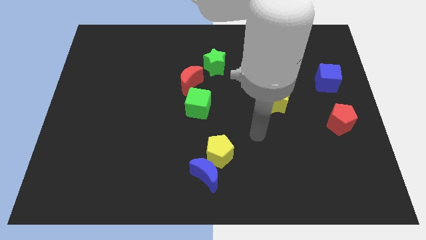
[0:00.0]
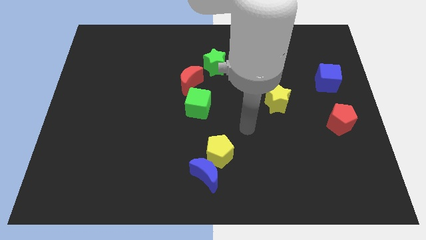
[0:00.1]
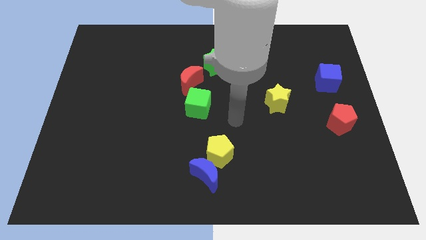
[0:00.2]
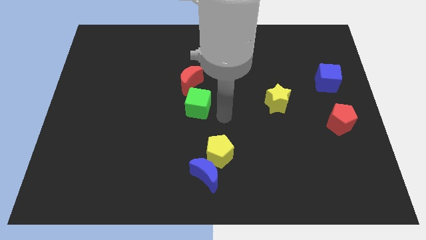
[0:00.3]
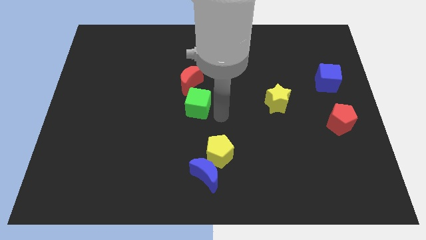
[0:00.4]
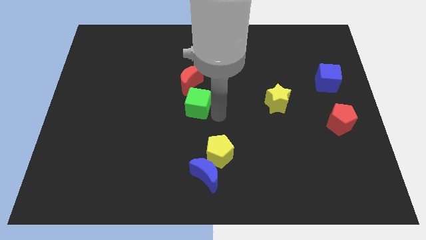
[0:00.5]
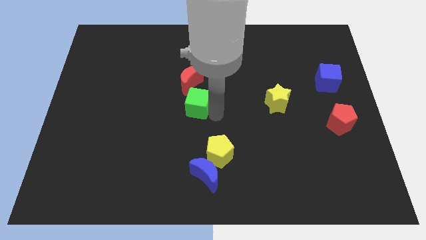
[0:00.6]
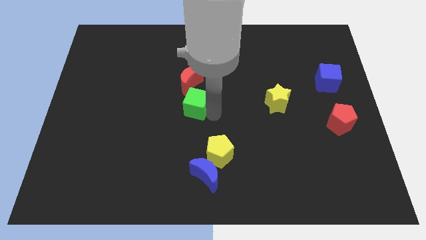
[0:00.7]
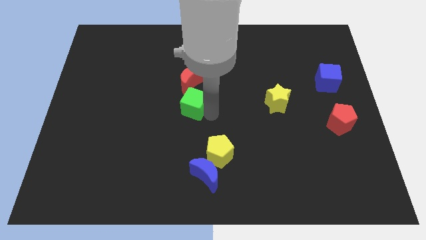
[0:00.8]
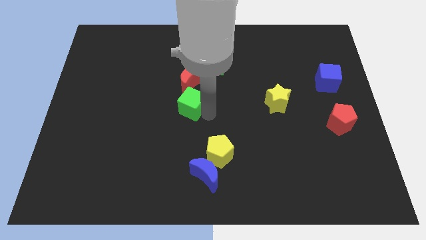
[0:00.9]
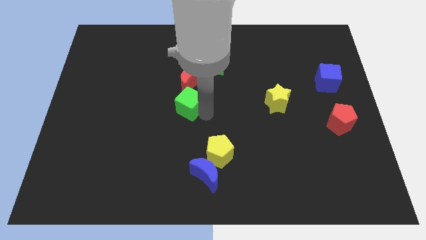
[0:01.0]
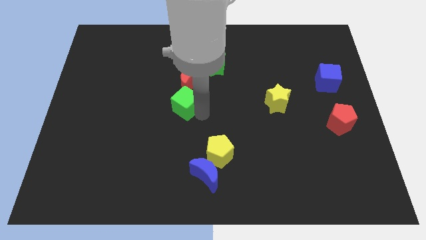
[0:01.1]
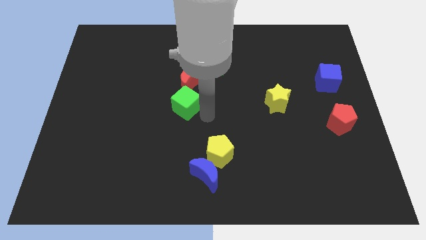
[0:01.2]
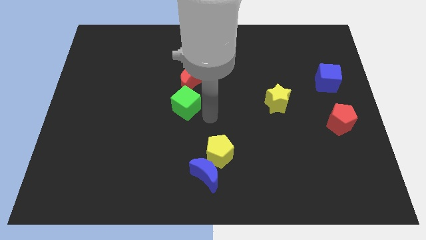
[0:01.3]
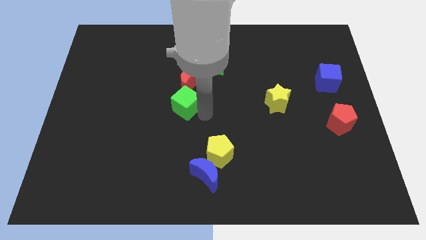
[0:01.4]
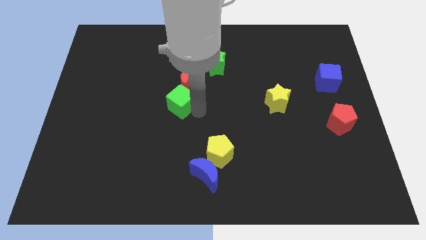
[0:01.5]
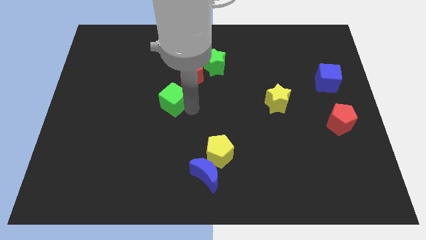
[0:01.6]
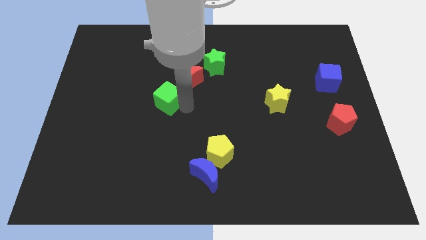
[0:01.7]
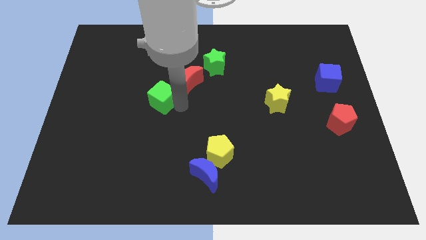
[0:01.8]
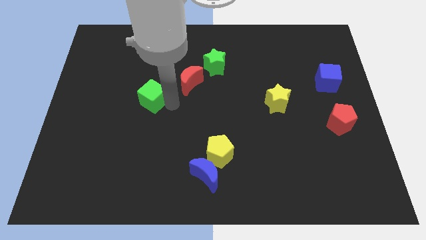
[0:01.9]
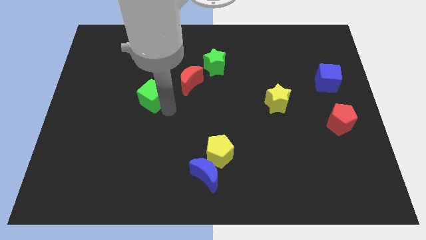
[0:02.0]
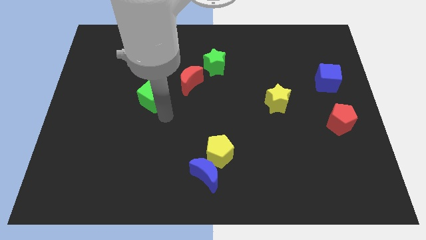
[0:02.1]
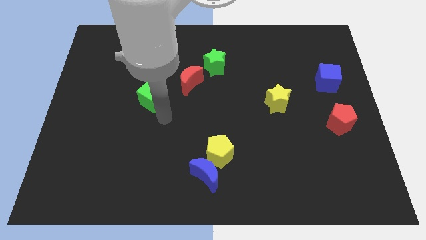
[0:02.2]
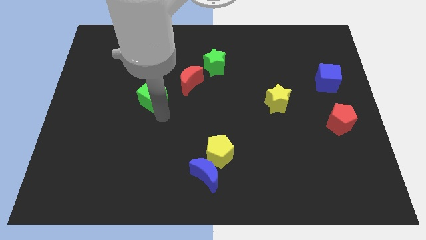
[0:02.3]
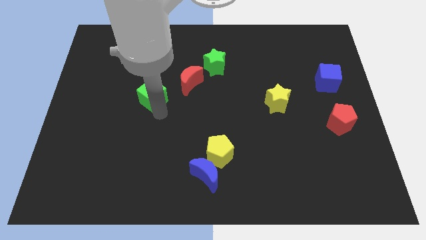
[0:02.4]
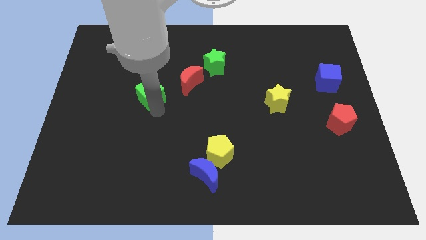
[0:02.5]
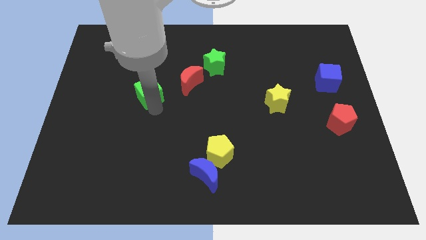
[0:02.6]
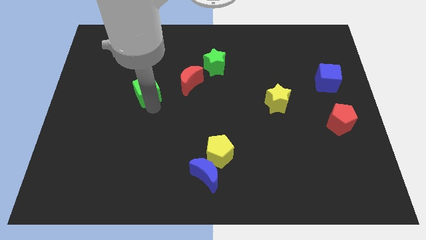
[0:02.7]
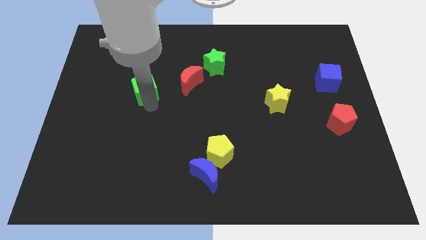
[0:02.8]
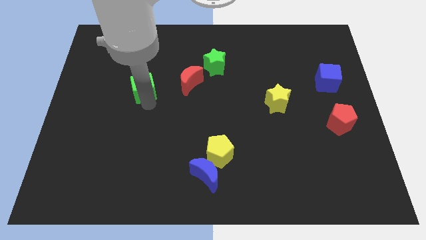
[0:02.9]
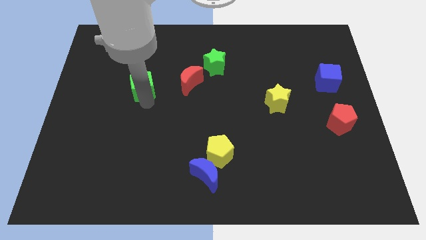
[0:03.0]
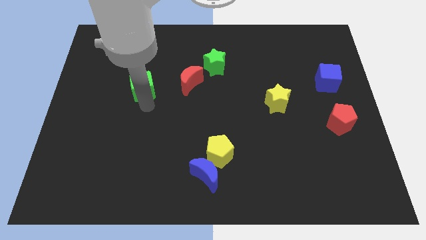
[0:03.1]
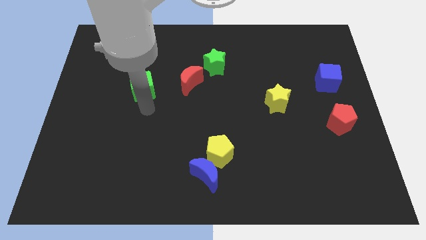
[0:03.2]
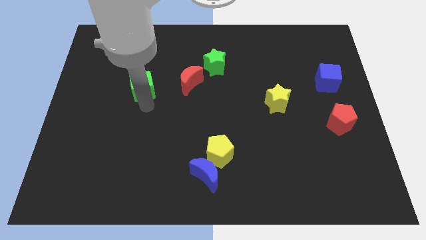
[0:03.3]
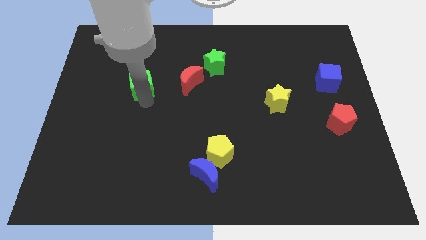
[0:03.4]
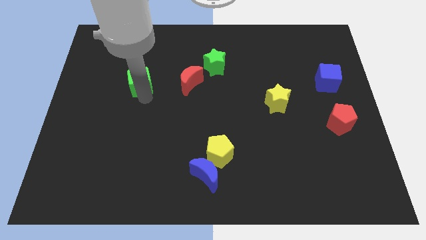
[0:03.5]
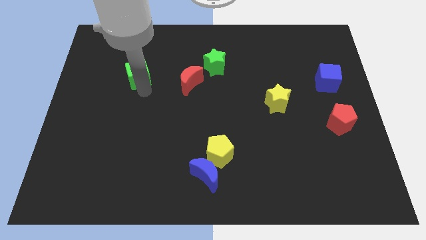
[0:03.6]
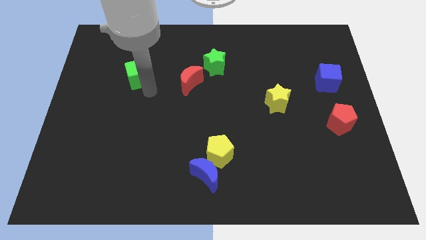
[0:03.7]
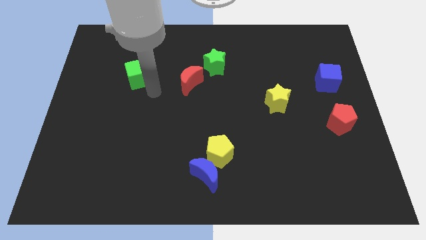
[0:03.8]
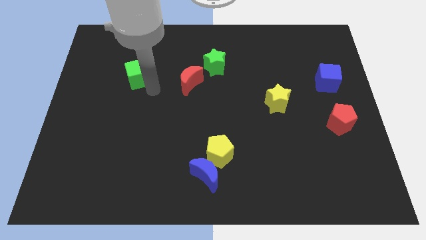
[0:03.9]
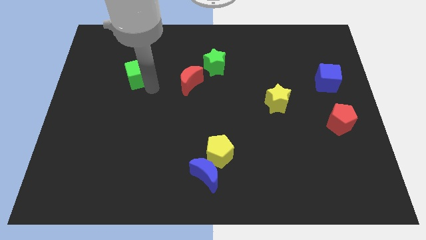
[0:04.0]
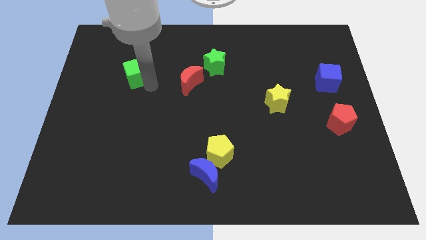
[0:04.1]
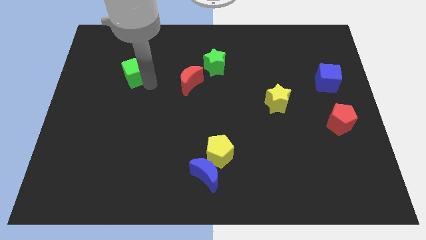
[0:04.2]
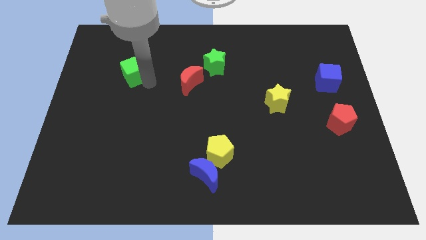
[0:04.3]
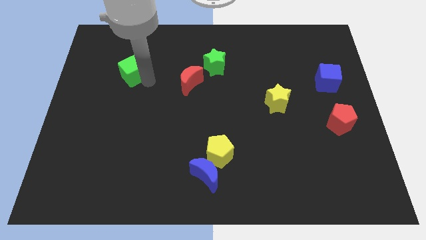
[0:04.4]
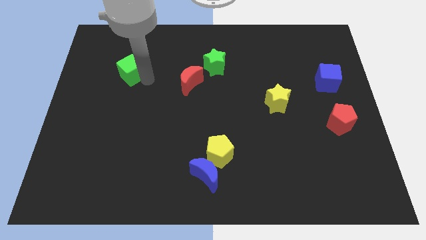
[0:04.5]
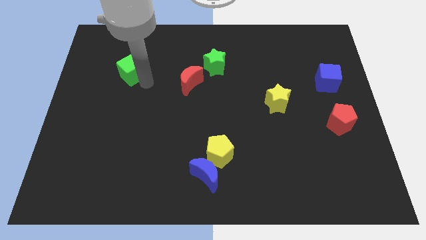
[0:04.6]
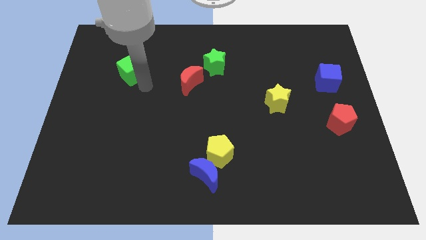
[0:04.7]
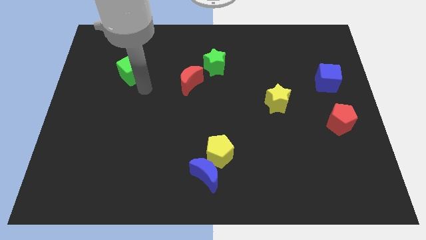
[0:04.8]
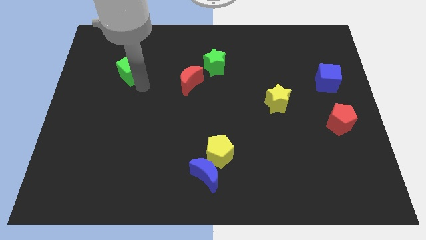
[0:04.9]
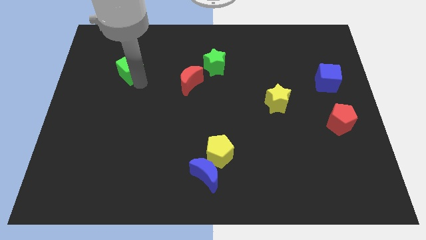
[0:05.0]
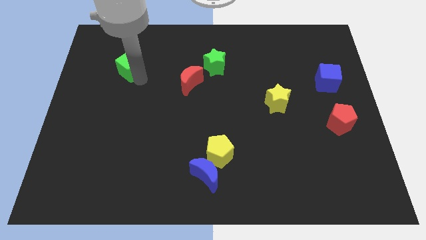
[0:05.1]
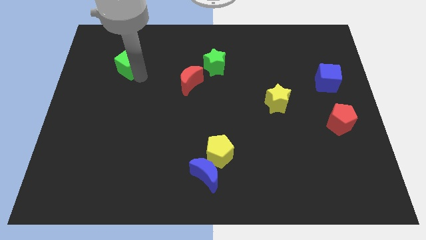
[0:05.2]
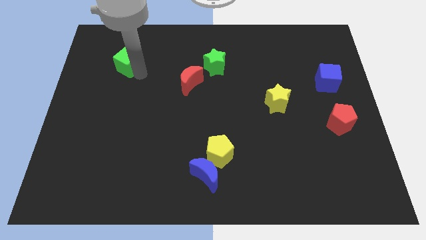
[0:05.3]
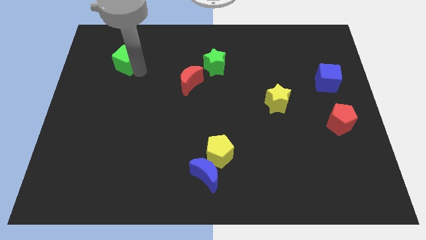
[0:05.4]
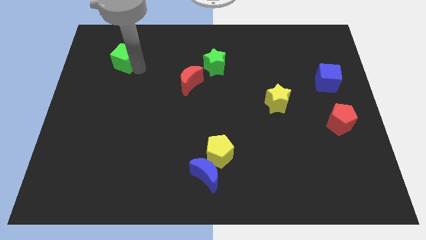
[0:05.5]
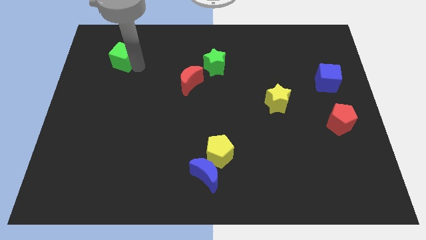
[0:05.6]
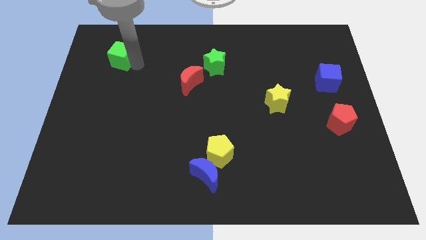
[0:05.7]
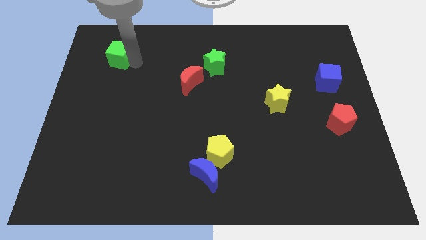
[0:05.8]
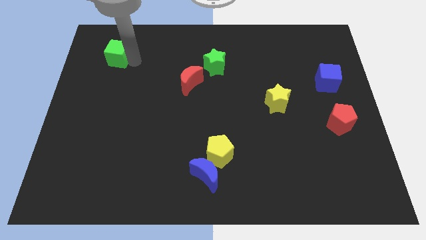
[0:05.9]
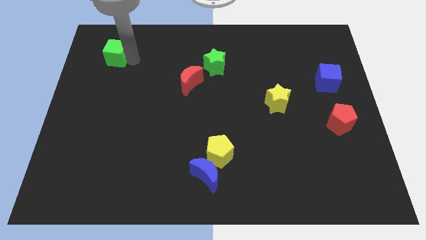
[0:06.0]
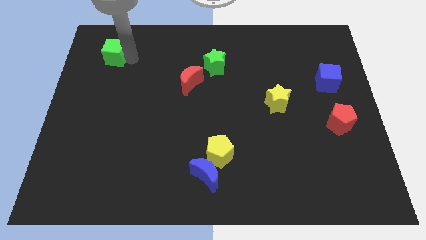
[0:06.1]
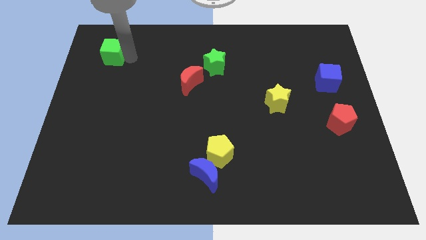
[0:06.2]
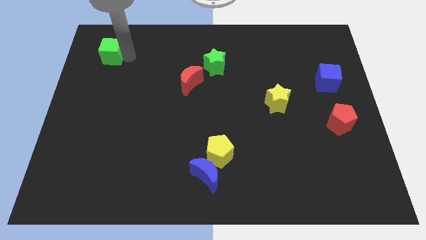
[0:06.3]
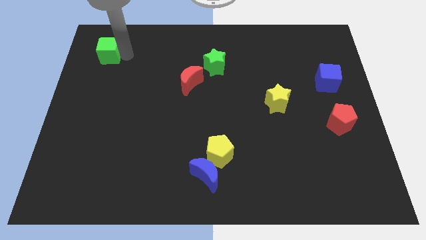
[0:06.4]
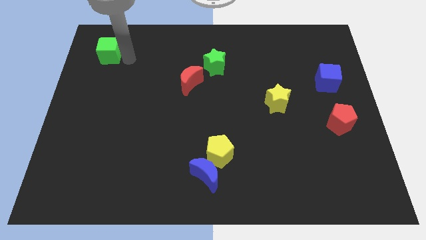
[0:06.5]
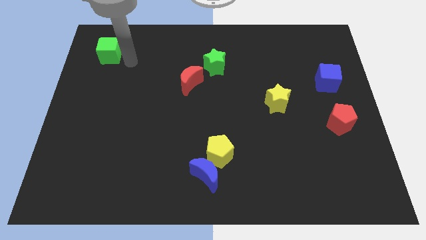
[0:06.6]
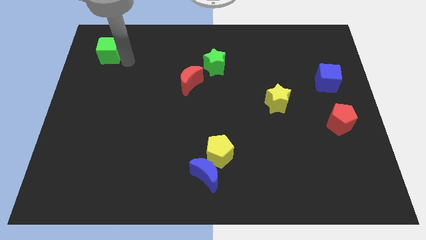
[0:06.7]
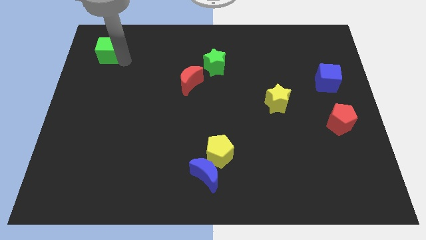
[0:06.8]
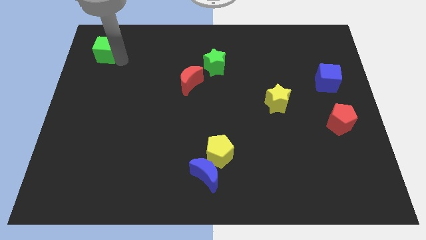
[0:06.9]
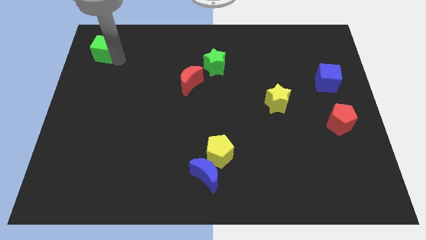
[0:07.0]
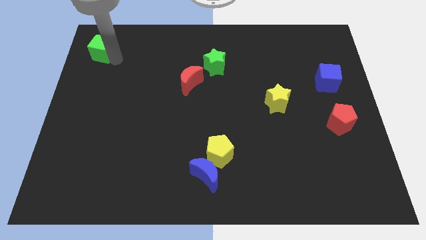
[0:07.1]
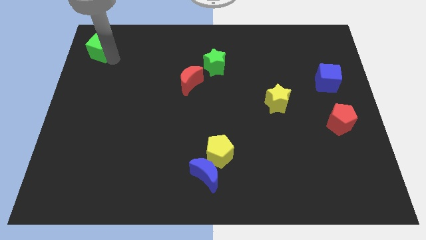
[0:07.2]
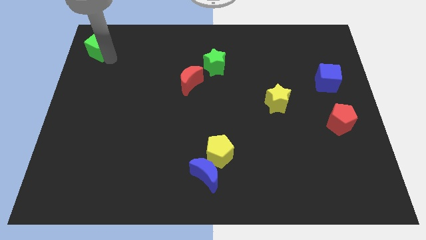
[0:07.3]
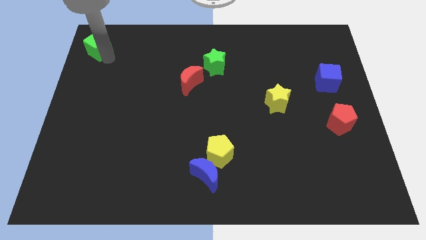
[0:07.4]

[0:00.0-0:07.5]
slide the green cube to the upper left corner
